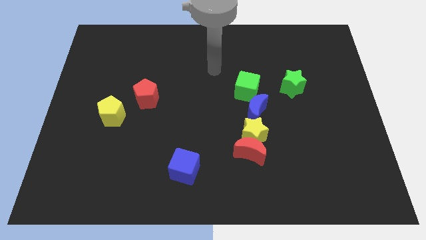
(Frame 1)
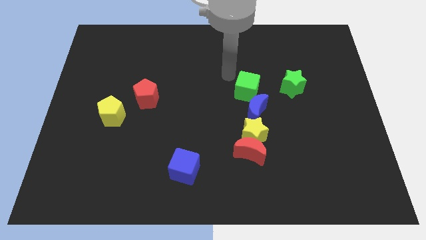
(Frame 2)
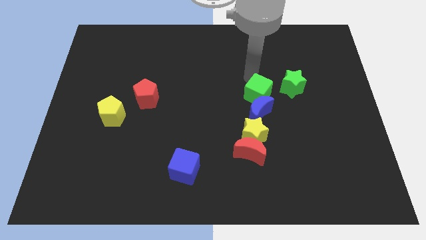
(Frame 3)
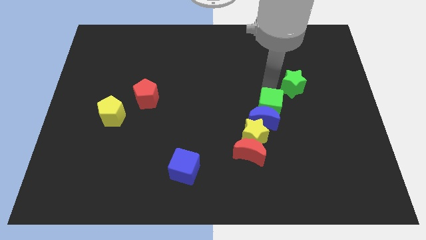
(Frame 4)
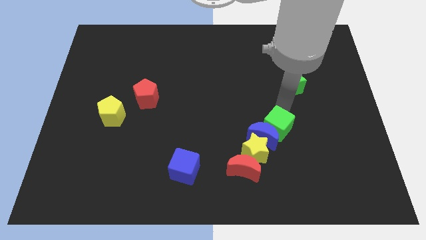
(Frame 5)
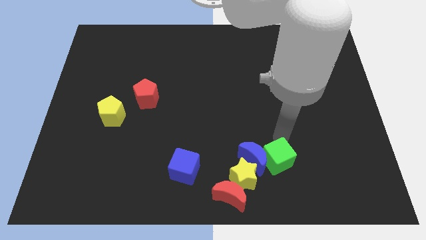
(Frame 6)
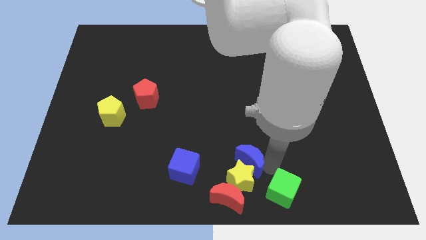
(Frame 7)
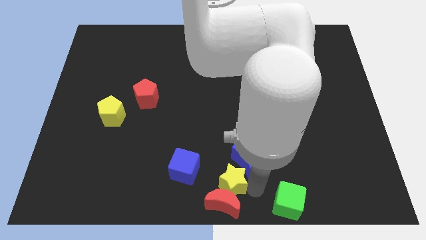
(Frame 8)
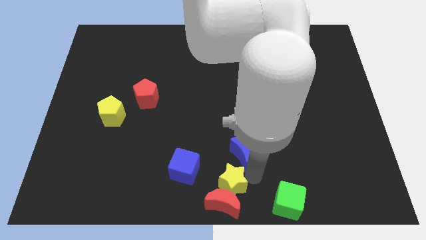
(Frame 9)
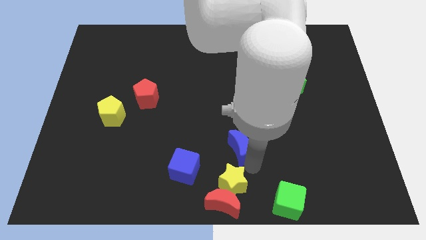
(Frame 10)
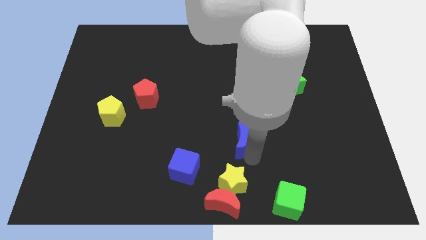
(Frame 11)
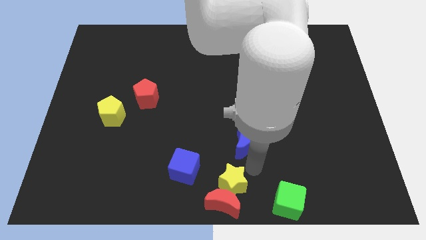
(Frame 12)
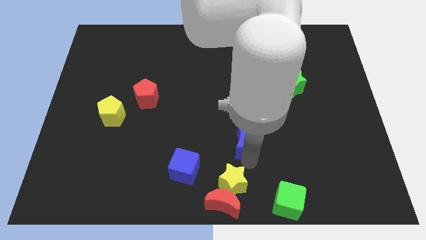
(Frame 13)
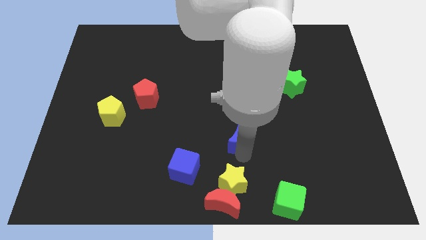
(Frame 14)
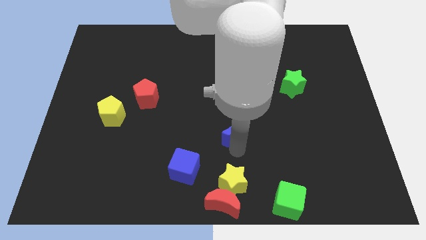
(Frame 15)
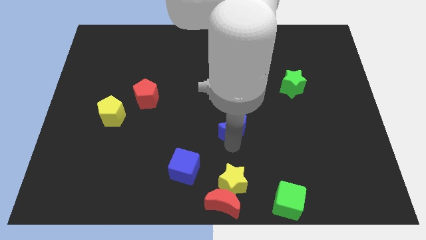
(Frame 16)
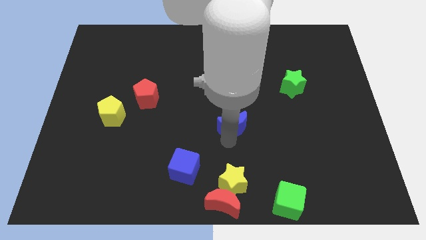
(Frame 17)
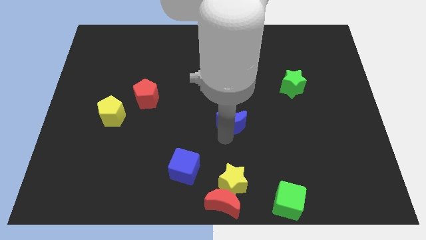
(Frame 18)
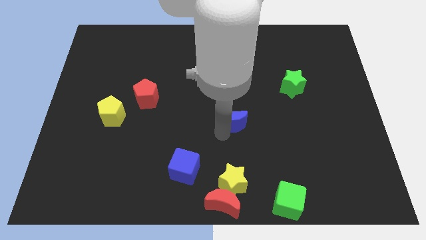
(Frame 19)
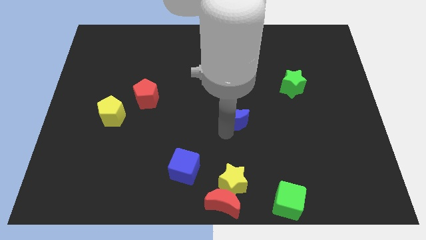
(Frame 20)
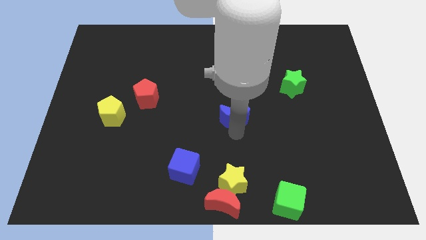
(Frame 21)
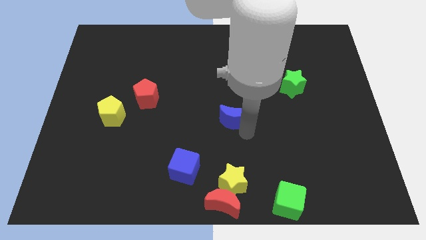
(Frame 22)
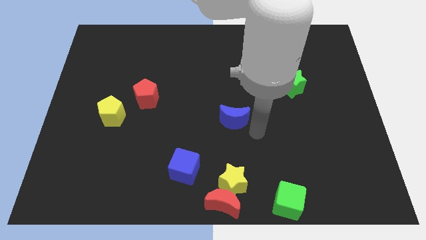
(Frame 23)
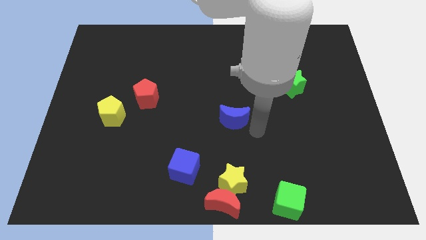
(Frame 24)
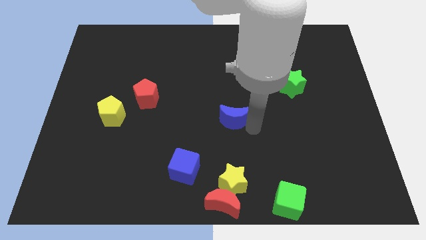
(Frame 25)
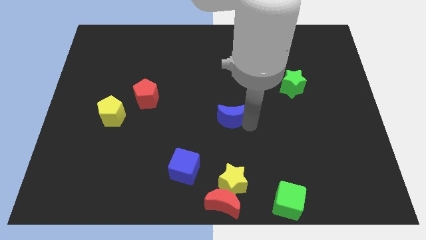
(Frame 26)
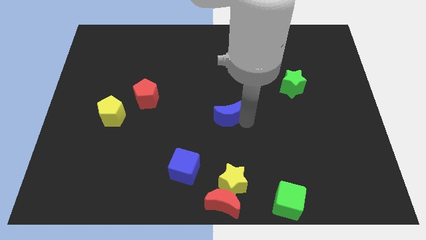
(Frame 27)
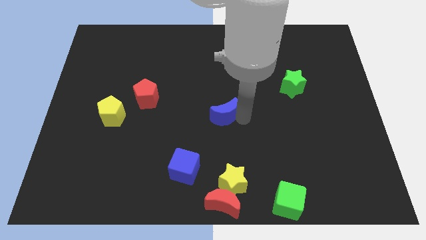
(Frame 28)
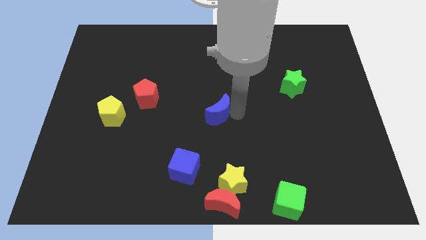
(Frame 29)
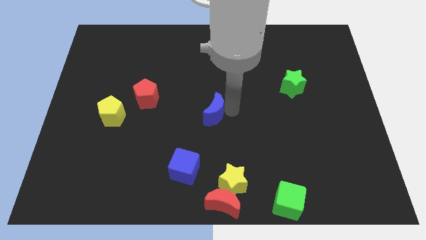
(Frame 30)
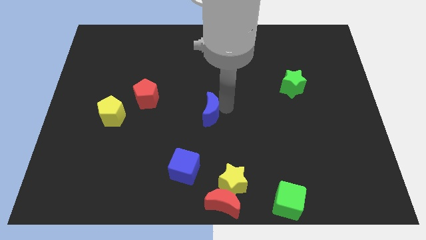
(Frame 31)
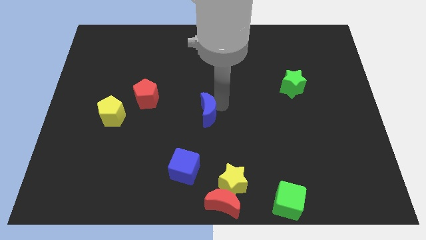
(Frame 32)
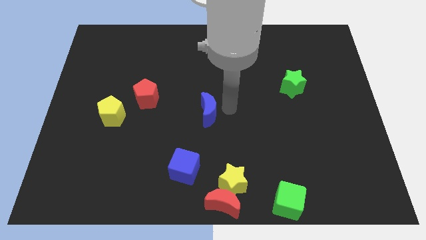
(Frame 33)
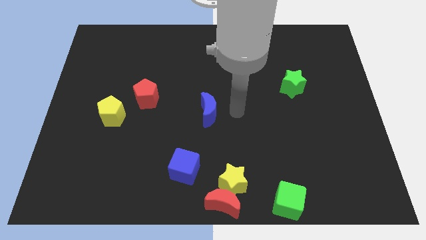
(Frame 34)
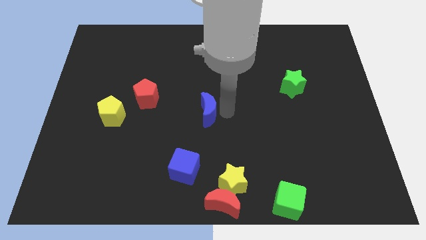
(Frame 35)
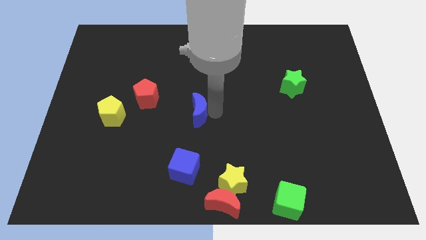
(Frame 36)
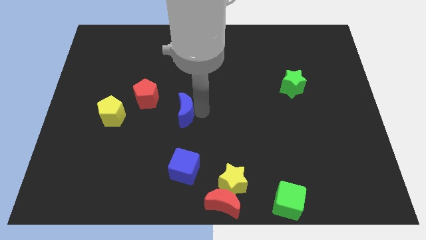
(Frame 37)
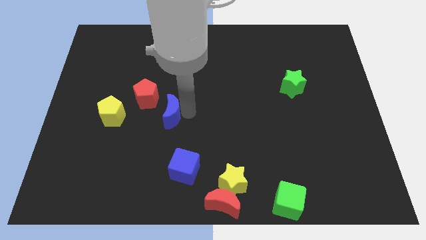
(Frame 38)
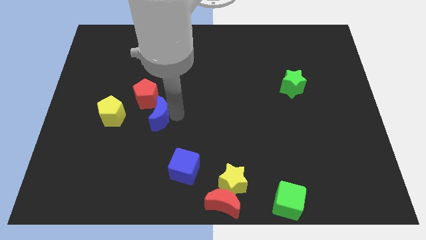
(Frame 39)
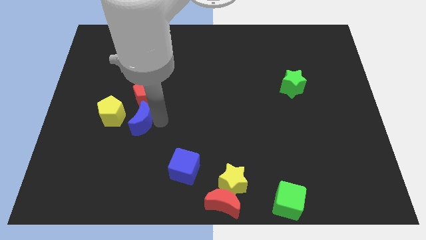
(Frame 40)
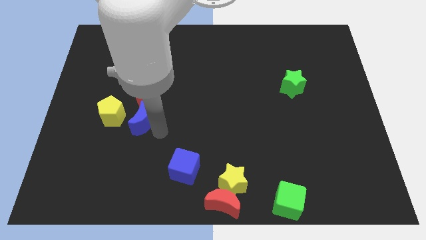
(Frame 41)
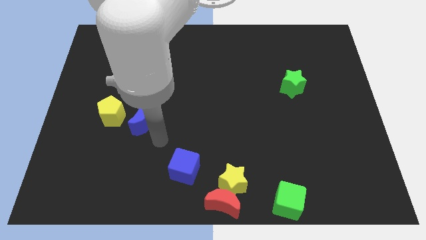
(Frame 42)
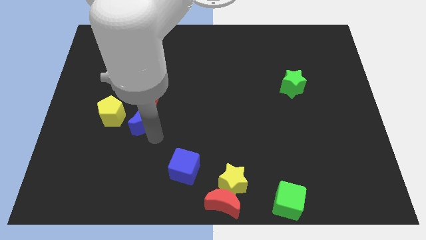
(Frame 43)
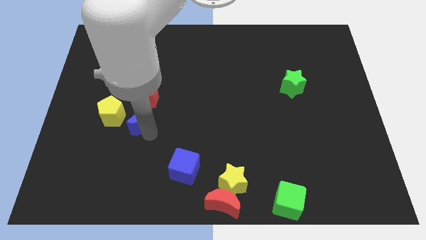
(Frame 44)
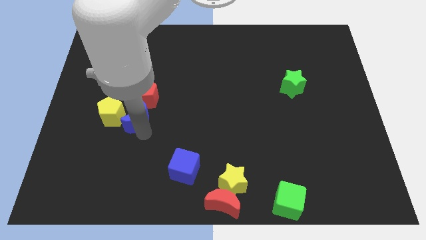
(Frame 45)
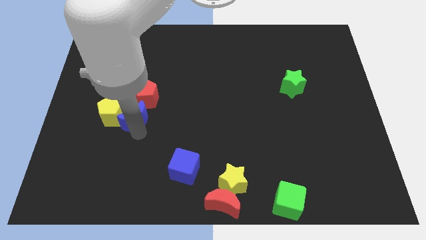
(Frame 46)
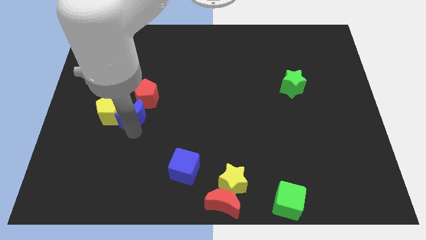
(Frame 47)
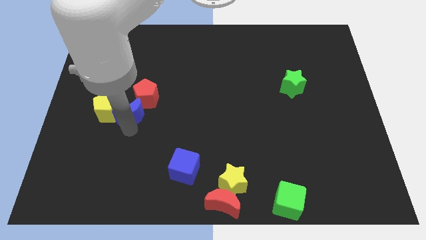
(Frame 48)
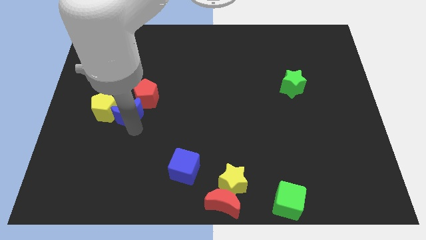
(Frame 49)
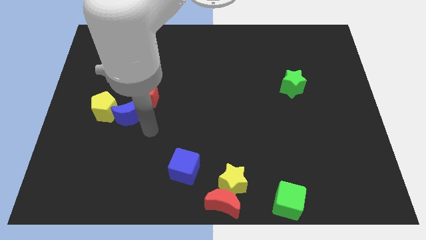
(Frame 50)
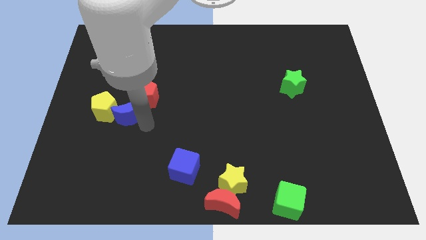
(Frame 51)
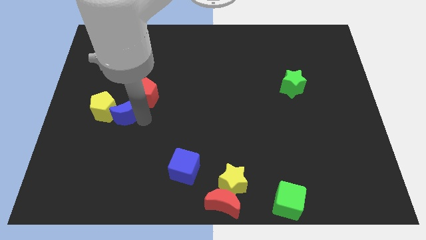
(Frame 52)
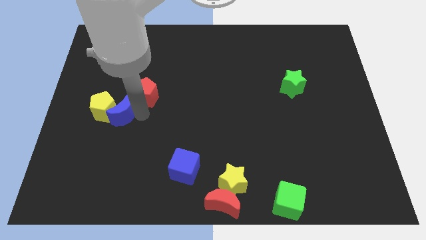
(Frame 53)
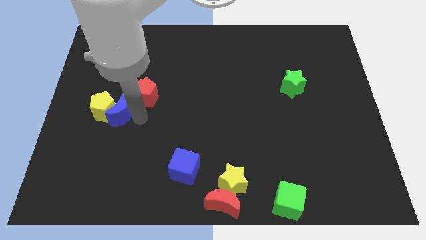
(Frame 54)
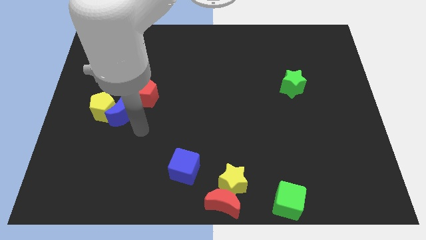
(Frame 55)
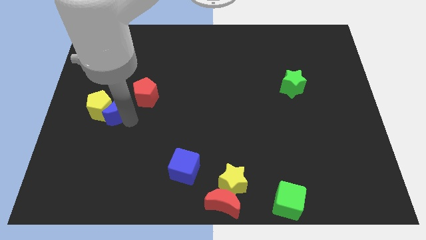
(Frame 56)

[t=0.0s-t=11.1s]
put the blue moon left of the red pentagon

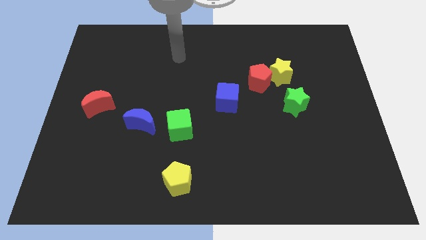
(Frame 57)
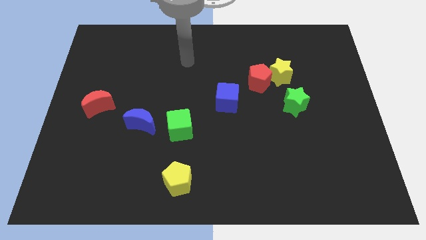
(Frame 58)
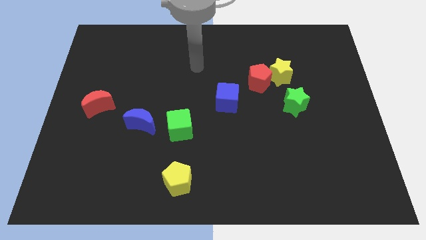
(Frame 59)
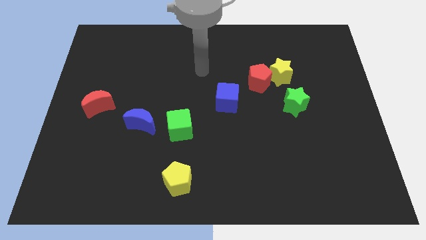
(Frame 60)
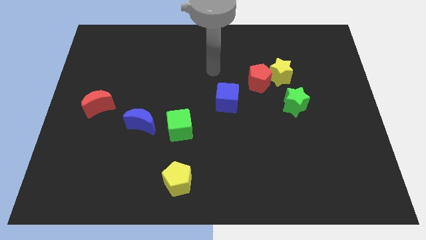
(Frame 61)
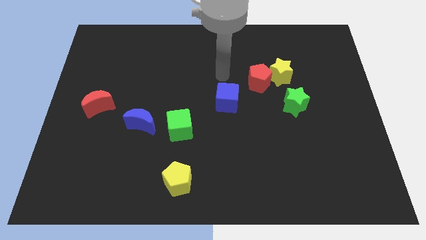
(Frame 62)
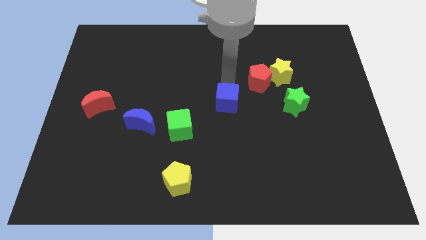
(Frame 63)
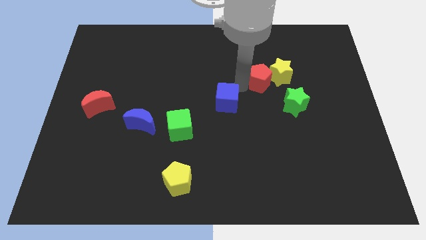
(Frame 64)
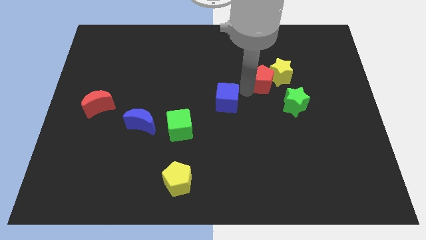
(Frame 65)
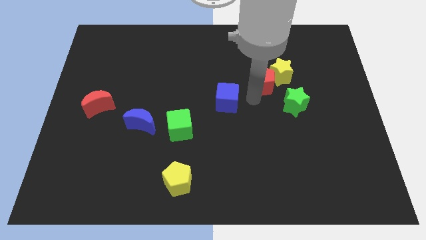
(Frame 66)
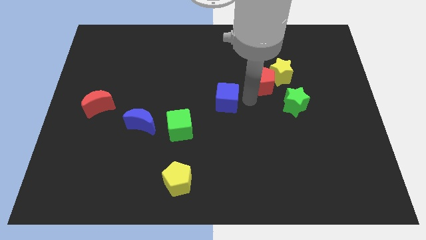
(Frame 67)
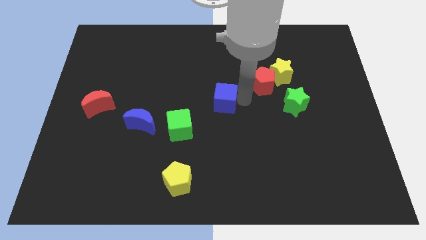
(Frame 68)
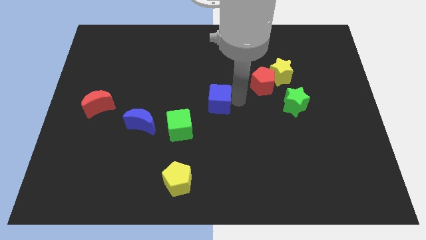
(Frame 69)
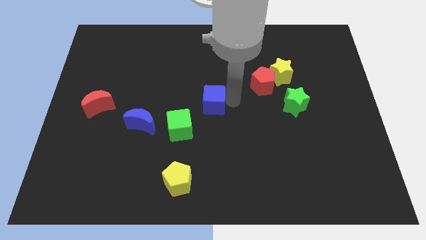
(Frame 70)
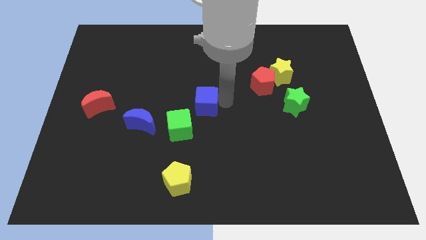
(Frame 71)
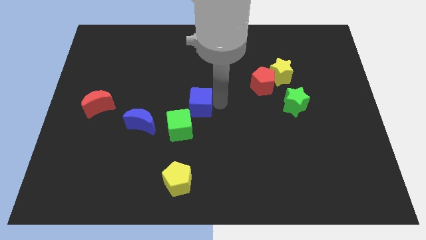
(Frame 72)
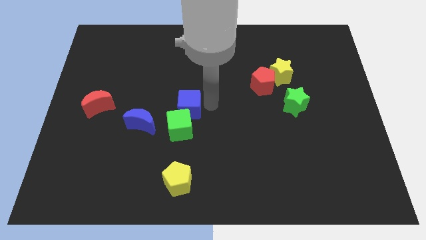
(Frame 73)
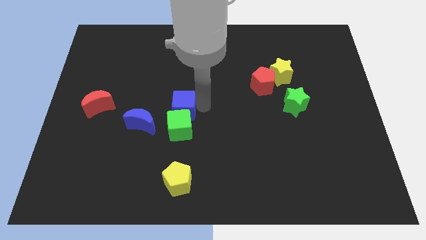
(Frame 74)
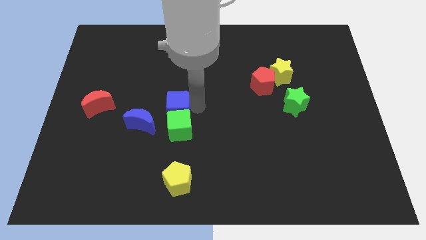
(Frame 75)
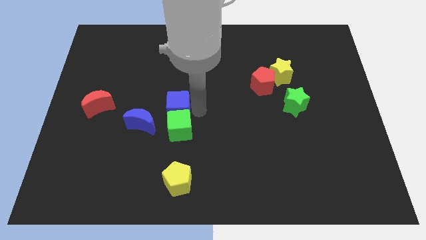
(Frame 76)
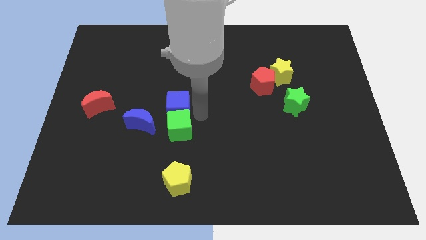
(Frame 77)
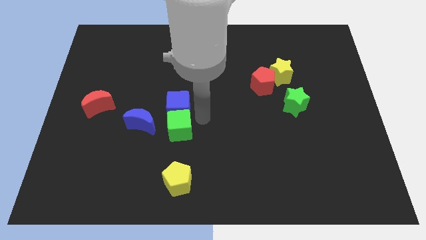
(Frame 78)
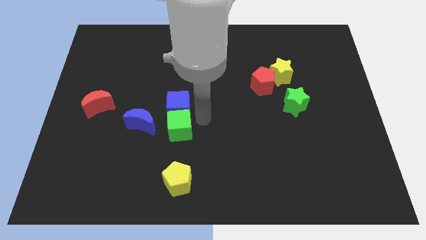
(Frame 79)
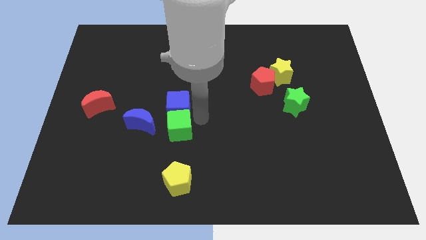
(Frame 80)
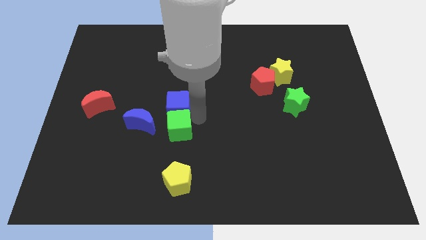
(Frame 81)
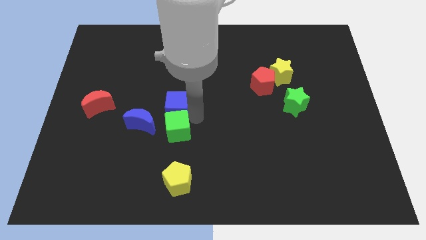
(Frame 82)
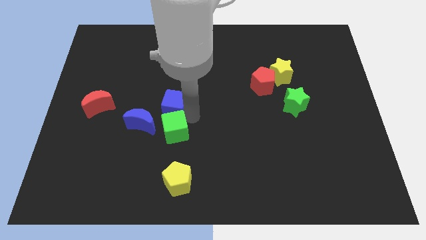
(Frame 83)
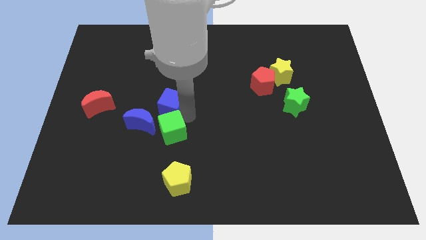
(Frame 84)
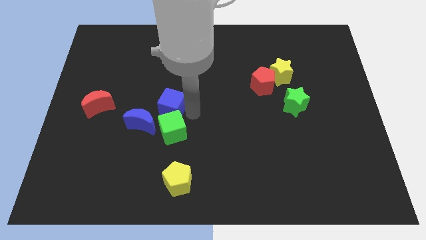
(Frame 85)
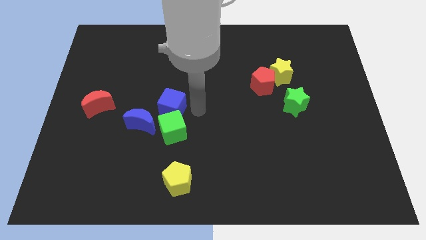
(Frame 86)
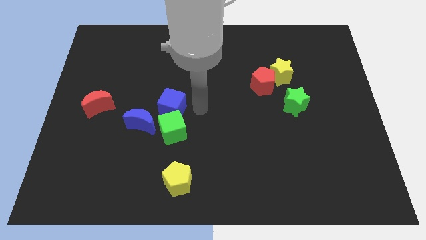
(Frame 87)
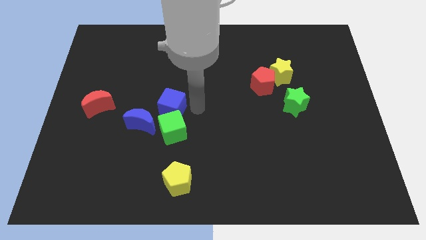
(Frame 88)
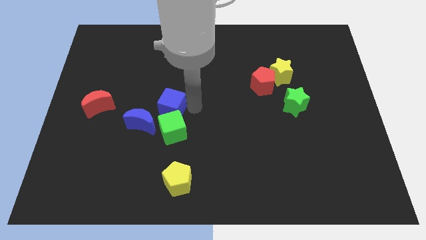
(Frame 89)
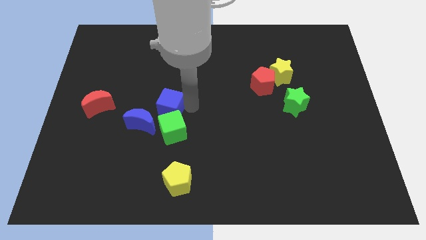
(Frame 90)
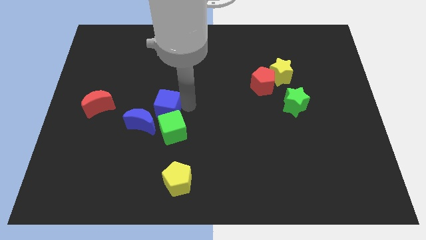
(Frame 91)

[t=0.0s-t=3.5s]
push the blue cube to the right of the red moon
